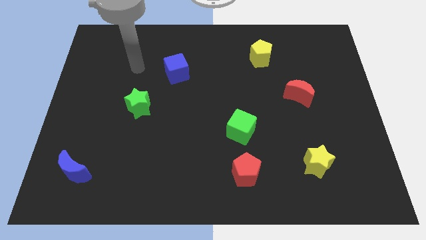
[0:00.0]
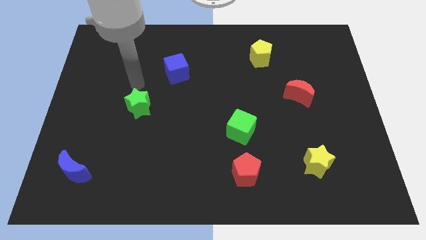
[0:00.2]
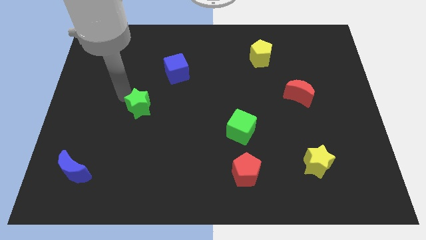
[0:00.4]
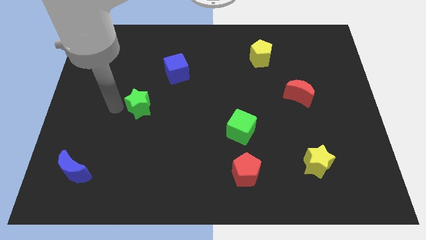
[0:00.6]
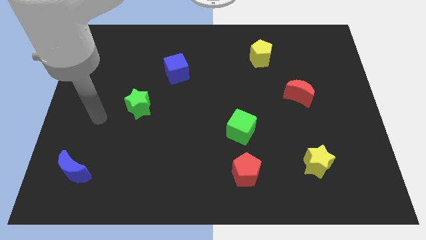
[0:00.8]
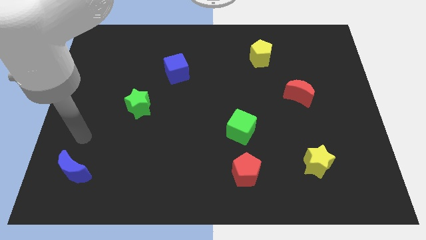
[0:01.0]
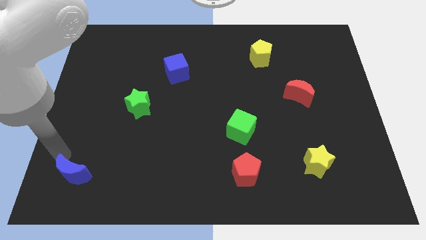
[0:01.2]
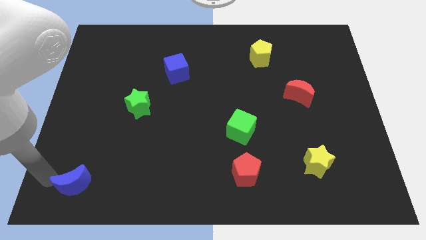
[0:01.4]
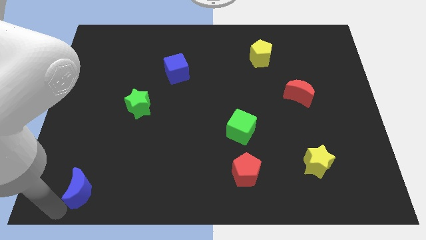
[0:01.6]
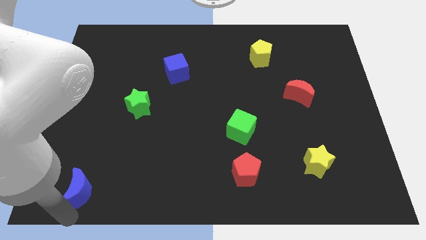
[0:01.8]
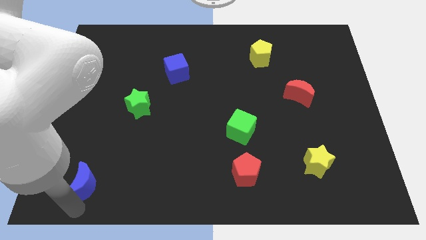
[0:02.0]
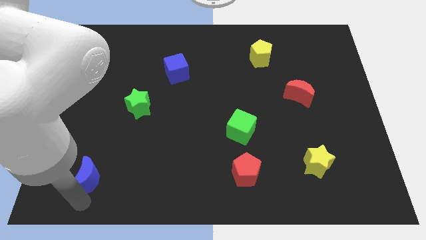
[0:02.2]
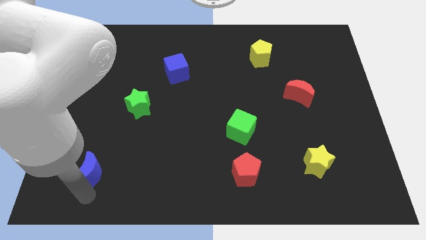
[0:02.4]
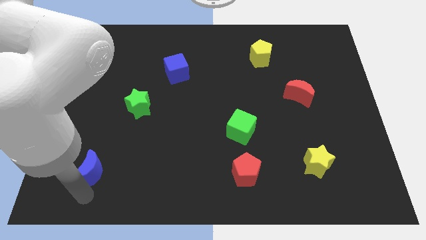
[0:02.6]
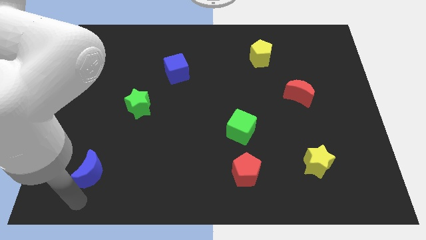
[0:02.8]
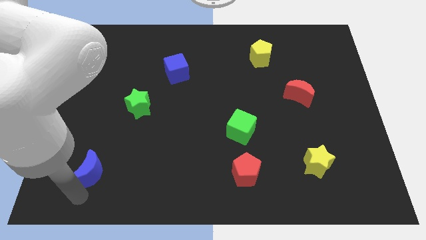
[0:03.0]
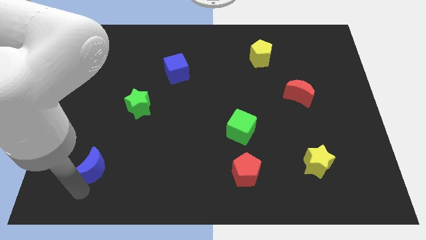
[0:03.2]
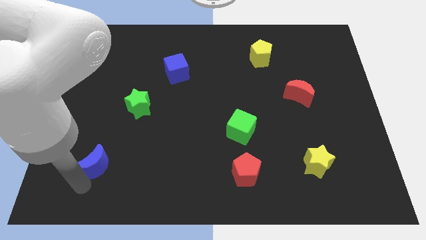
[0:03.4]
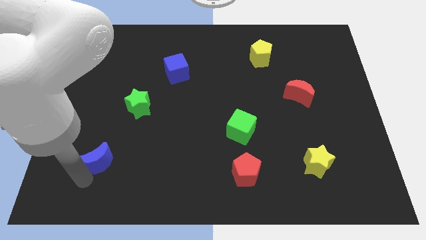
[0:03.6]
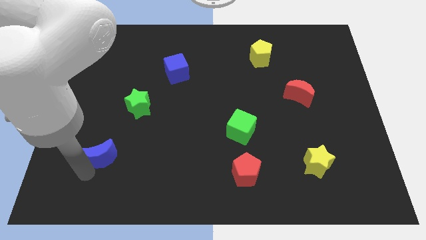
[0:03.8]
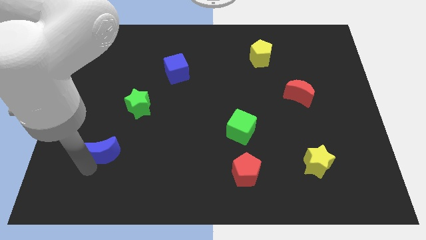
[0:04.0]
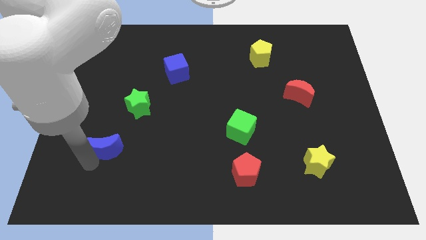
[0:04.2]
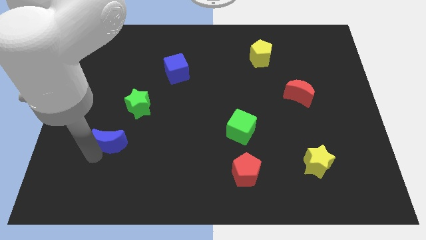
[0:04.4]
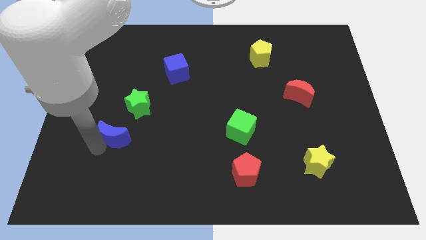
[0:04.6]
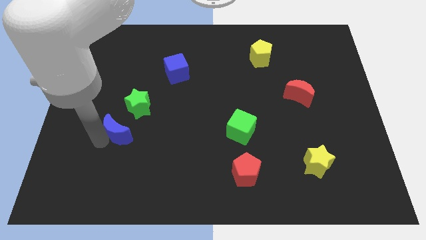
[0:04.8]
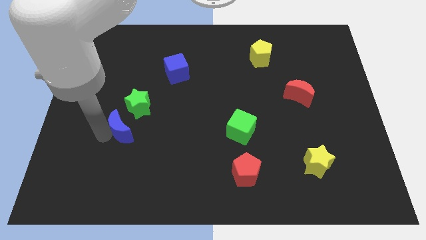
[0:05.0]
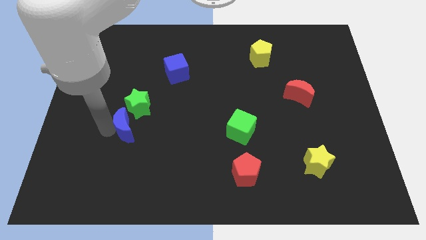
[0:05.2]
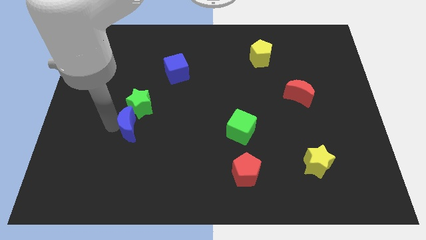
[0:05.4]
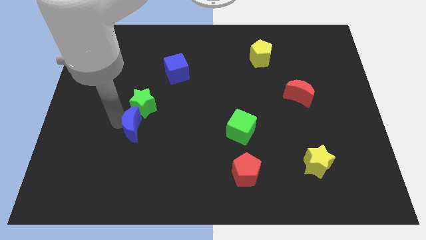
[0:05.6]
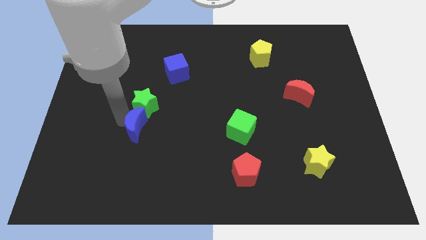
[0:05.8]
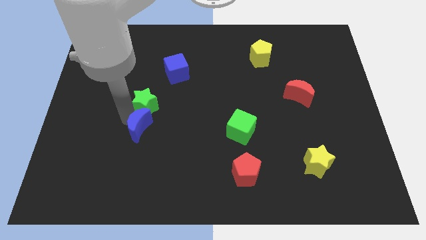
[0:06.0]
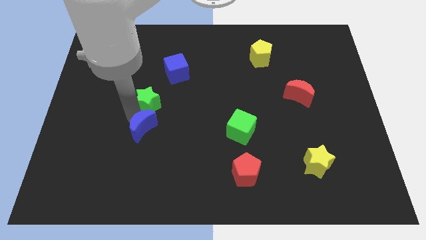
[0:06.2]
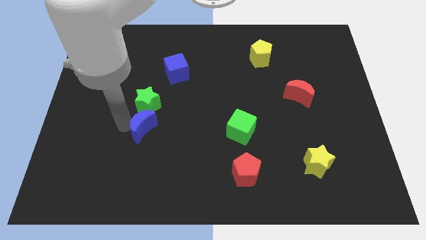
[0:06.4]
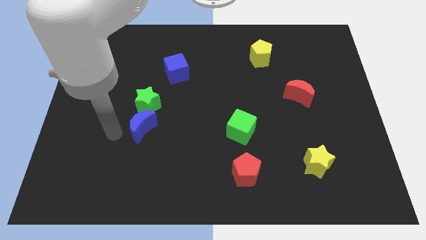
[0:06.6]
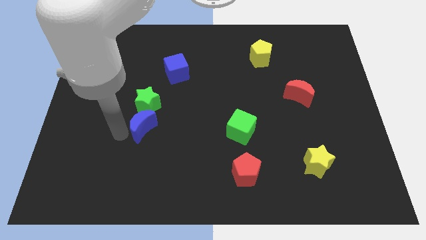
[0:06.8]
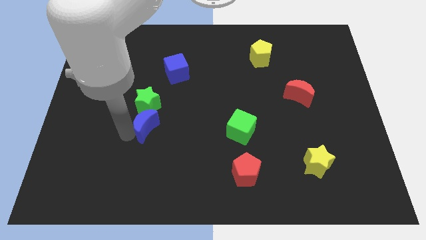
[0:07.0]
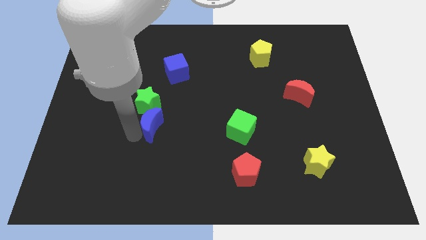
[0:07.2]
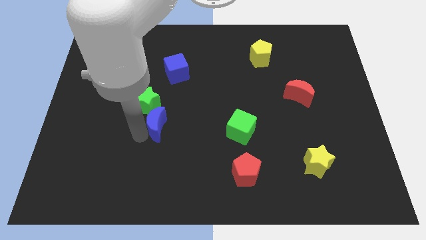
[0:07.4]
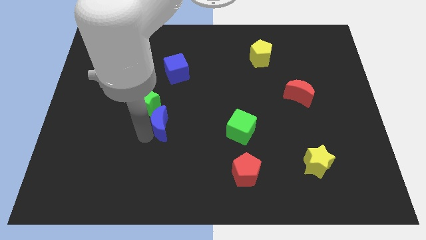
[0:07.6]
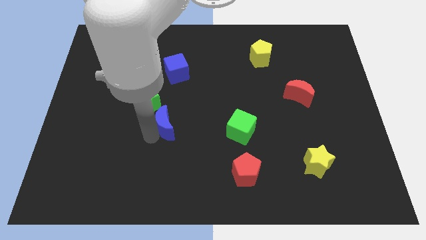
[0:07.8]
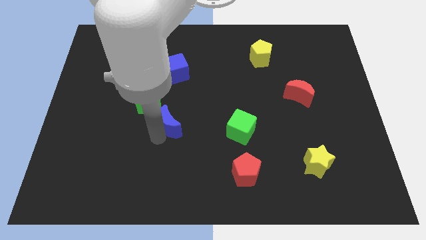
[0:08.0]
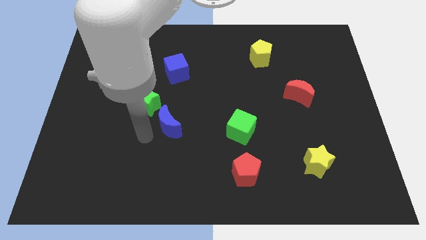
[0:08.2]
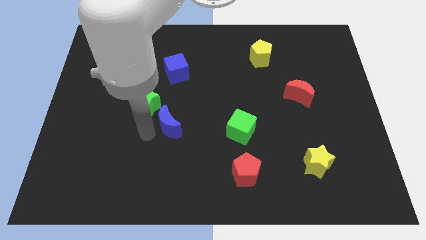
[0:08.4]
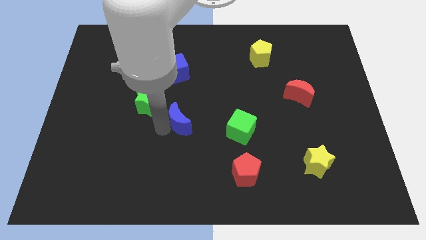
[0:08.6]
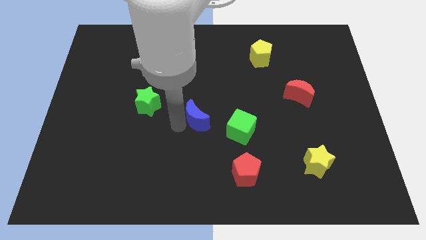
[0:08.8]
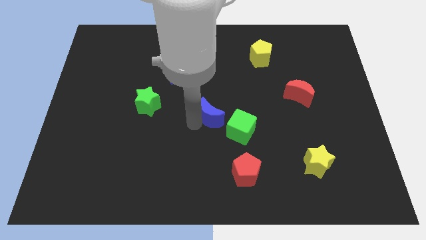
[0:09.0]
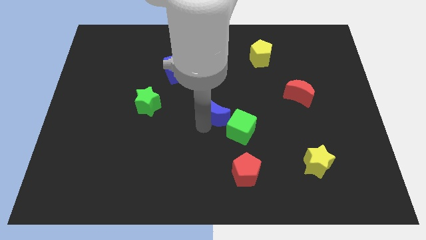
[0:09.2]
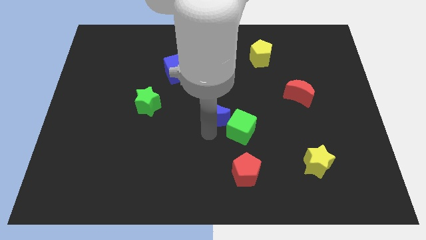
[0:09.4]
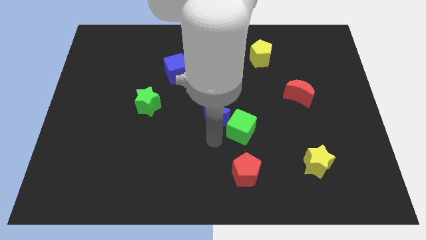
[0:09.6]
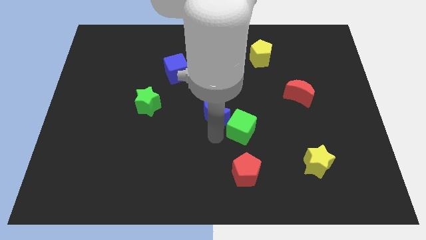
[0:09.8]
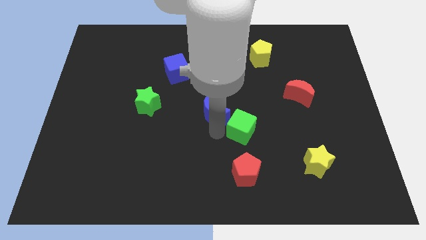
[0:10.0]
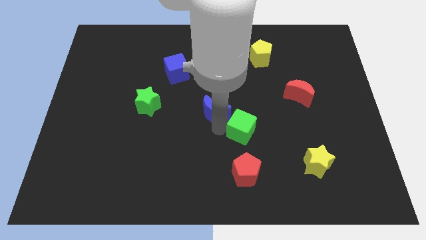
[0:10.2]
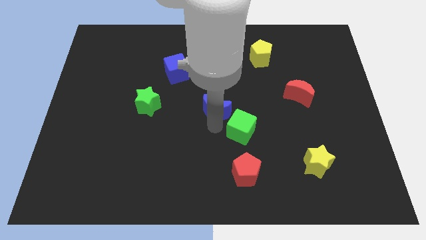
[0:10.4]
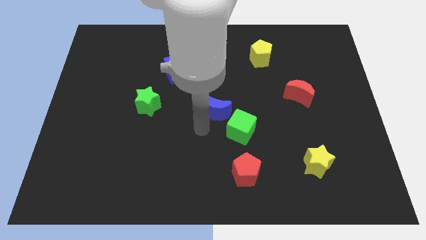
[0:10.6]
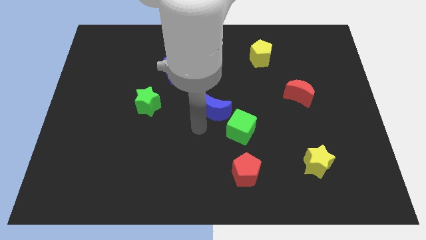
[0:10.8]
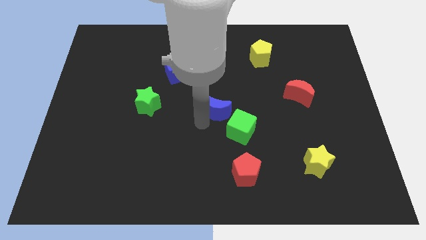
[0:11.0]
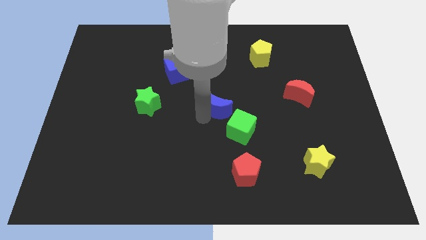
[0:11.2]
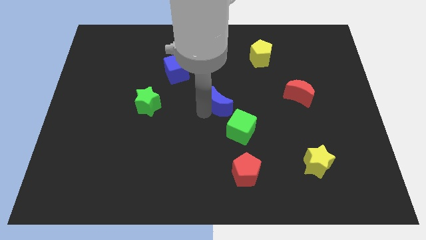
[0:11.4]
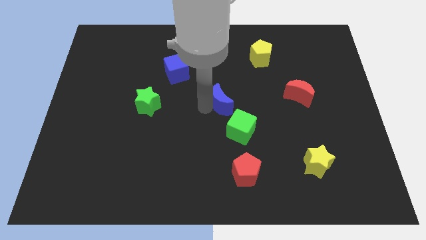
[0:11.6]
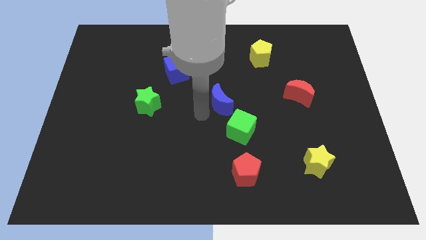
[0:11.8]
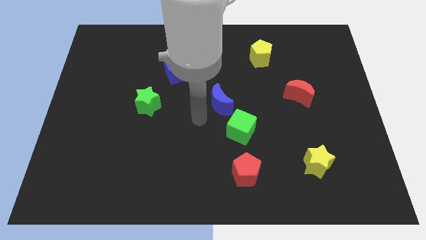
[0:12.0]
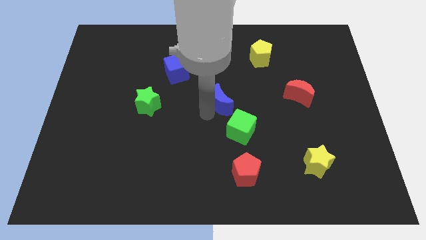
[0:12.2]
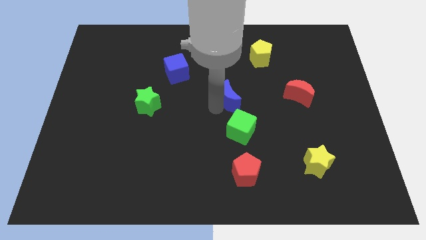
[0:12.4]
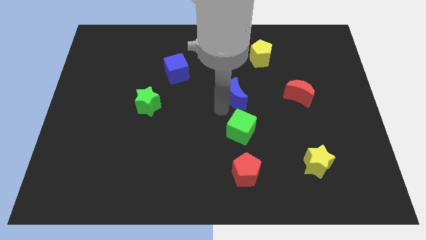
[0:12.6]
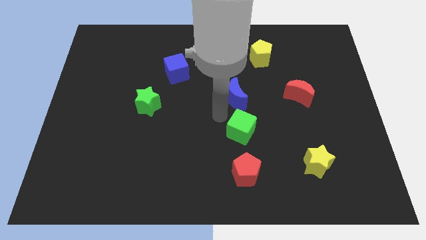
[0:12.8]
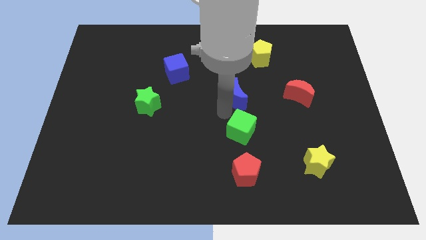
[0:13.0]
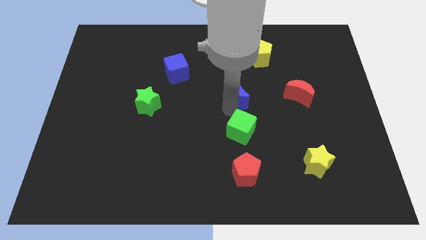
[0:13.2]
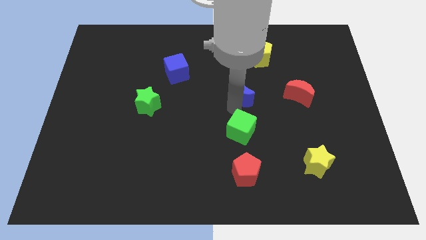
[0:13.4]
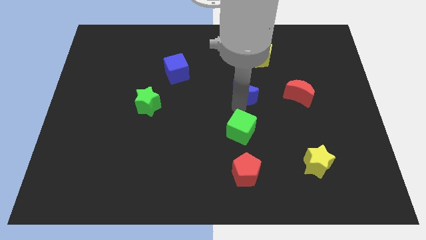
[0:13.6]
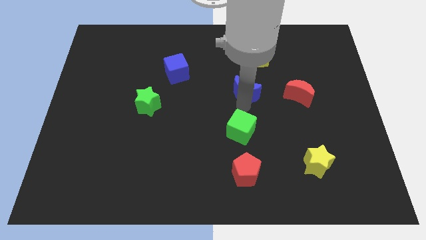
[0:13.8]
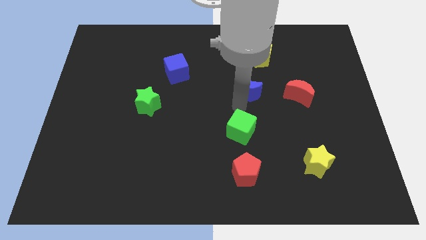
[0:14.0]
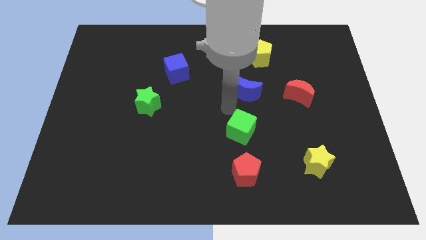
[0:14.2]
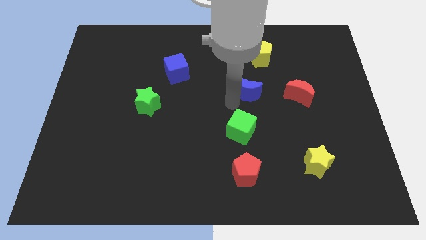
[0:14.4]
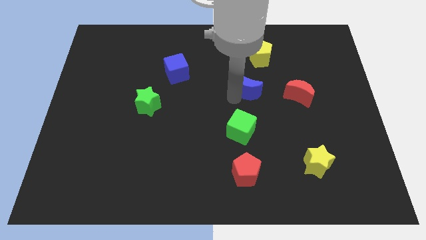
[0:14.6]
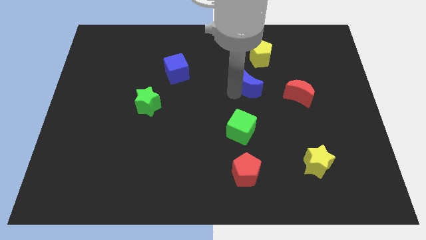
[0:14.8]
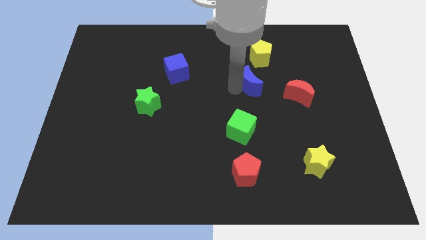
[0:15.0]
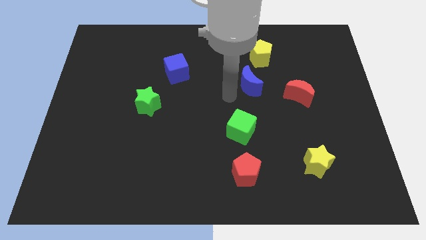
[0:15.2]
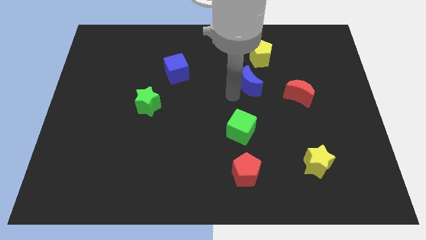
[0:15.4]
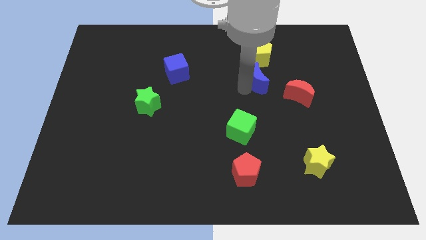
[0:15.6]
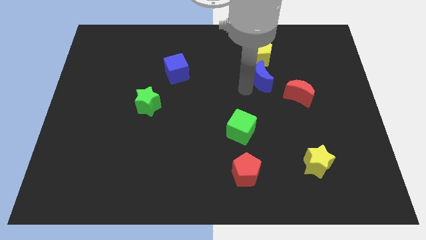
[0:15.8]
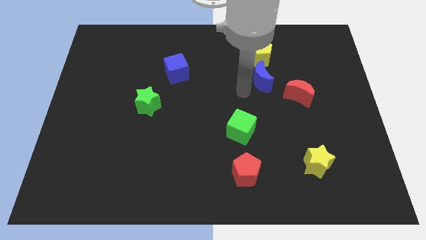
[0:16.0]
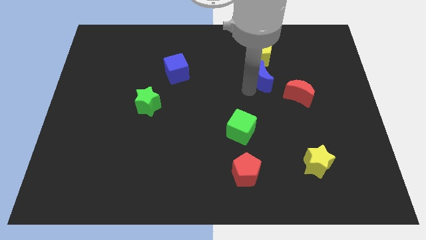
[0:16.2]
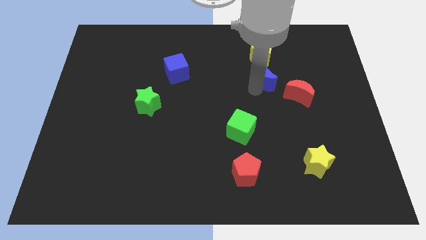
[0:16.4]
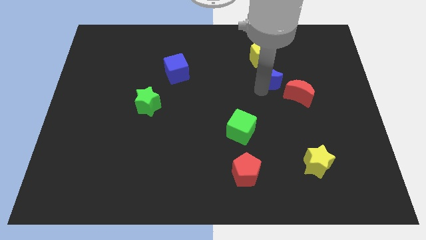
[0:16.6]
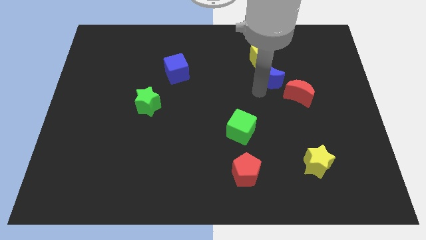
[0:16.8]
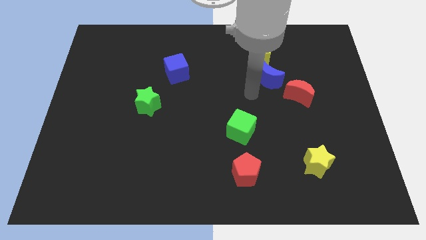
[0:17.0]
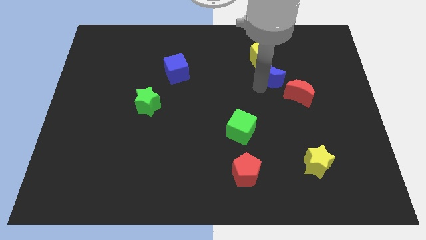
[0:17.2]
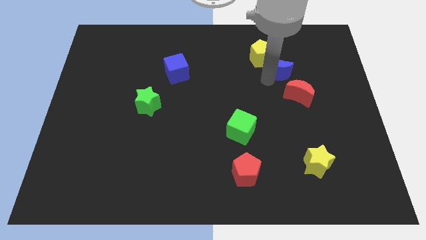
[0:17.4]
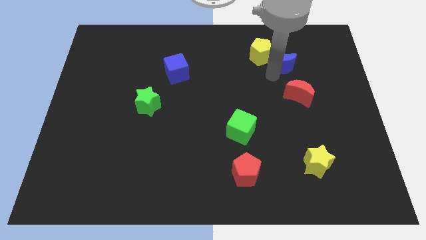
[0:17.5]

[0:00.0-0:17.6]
put the blue moon to the right side of the yellow pentagon
